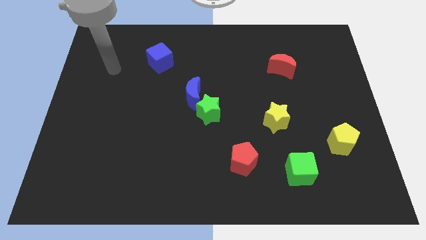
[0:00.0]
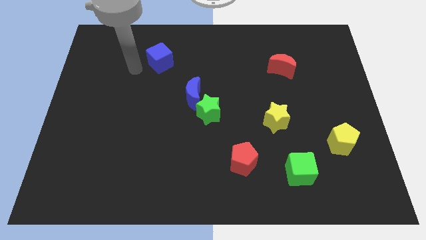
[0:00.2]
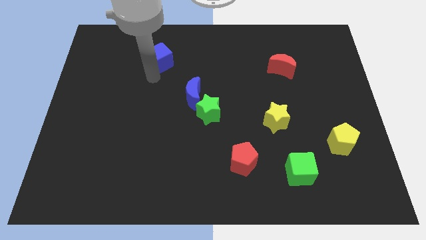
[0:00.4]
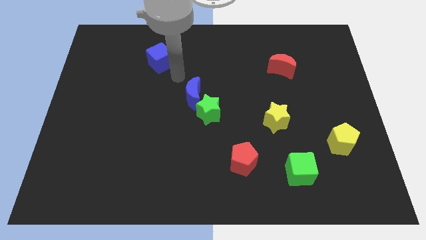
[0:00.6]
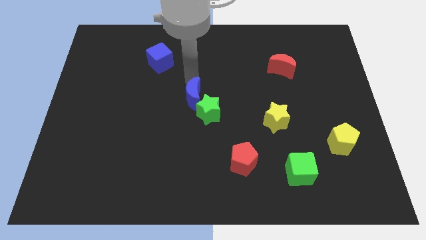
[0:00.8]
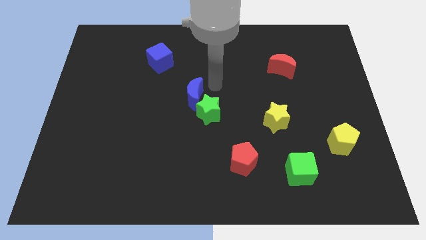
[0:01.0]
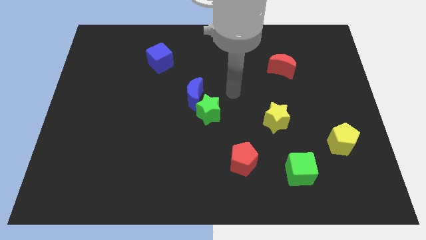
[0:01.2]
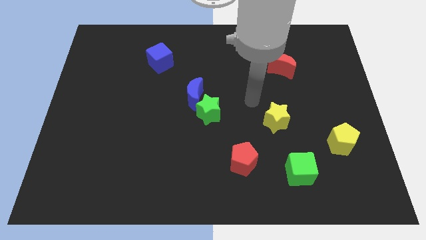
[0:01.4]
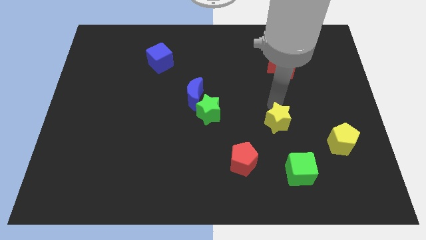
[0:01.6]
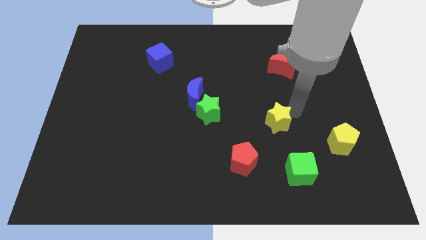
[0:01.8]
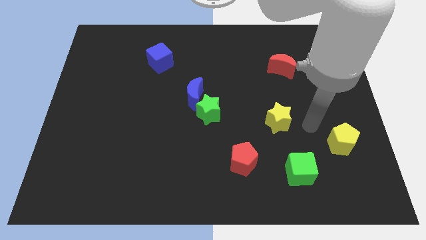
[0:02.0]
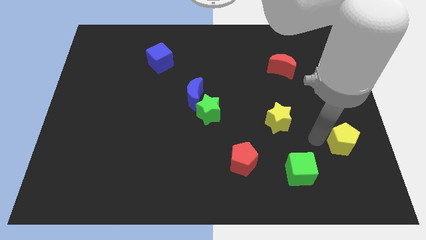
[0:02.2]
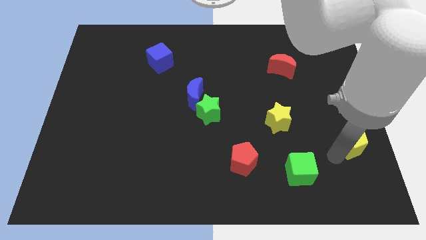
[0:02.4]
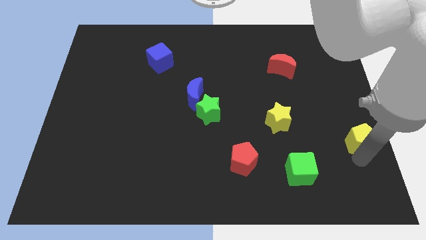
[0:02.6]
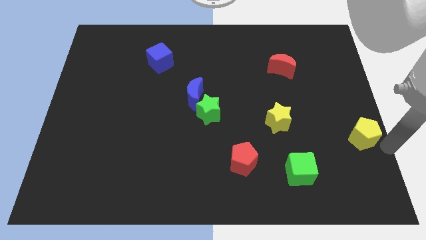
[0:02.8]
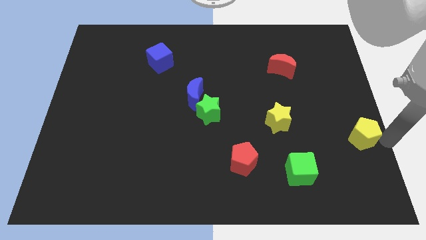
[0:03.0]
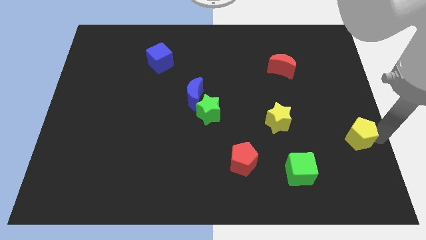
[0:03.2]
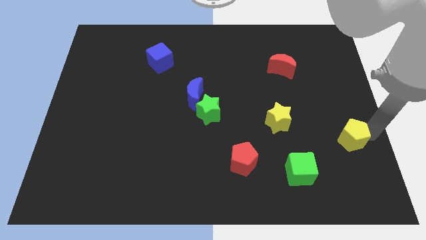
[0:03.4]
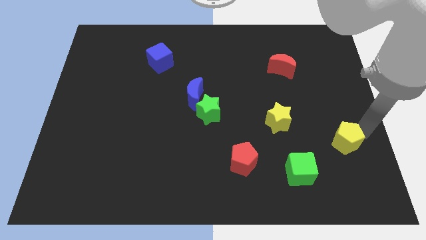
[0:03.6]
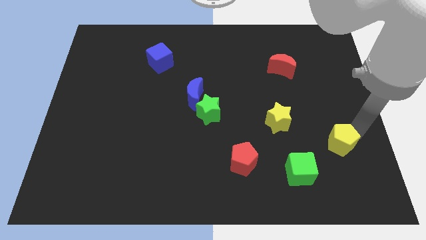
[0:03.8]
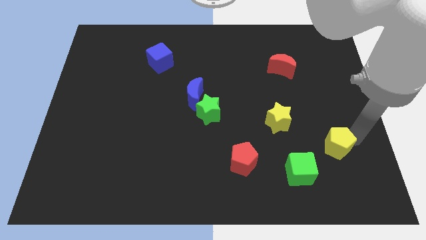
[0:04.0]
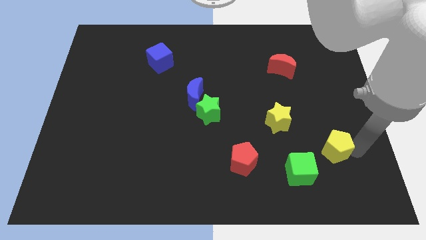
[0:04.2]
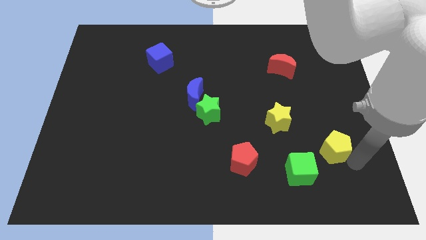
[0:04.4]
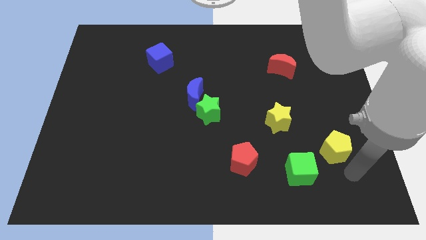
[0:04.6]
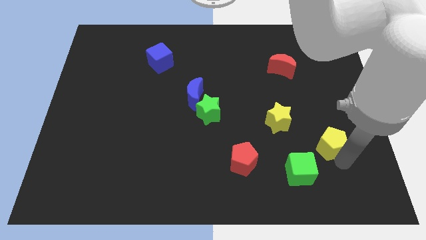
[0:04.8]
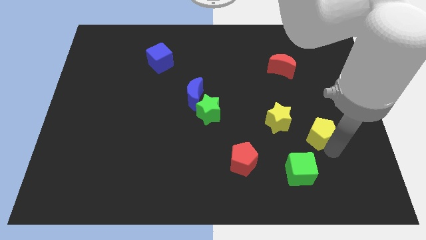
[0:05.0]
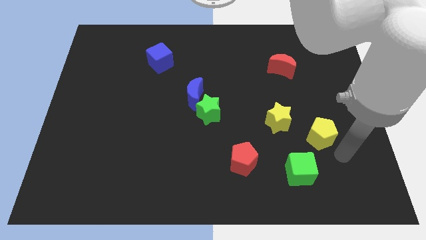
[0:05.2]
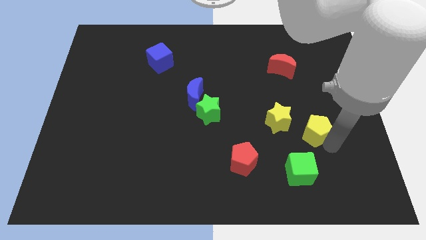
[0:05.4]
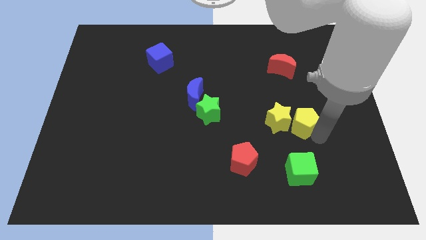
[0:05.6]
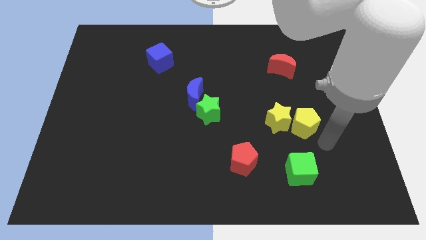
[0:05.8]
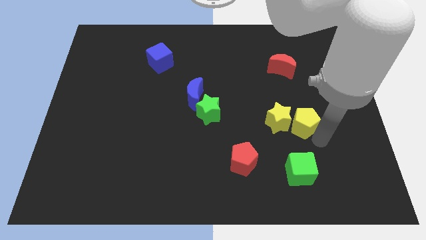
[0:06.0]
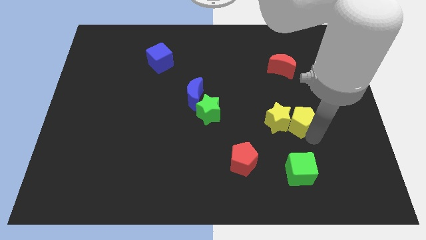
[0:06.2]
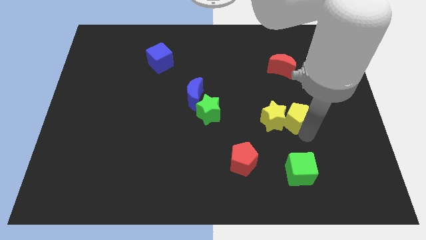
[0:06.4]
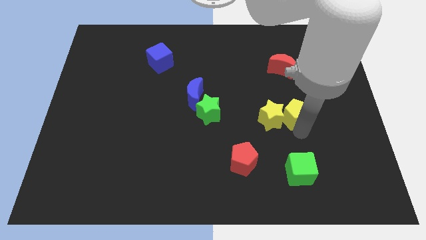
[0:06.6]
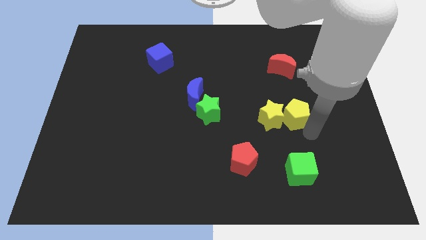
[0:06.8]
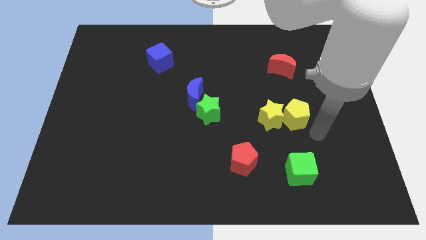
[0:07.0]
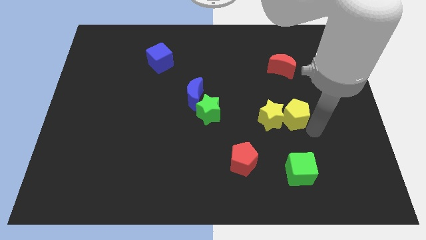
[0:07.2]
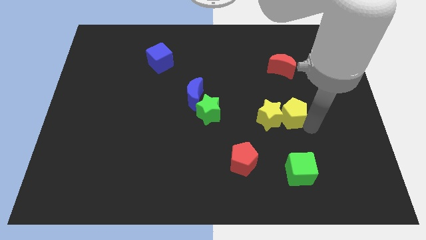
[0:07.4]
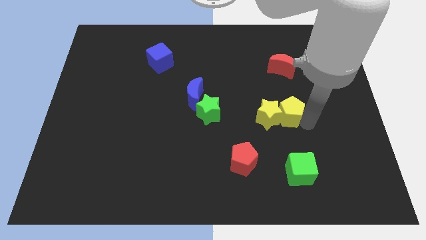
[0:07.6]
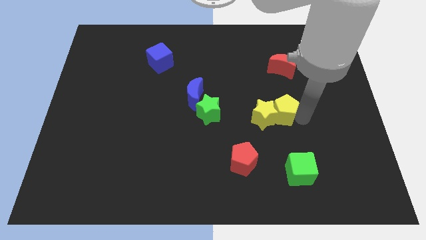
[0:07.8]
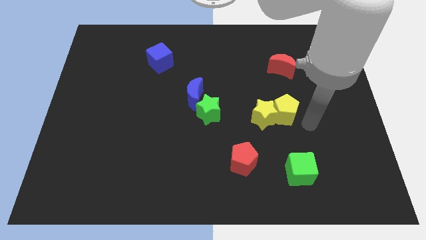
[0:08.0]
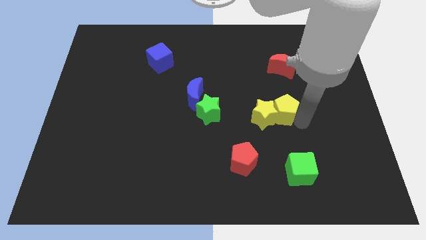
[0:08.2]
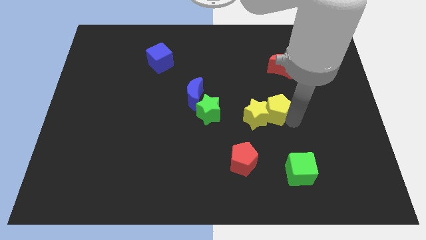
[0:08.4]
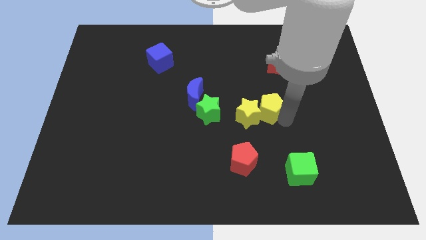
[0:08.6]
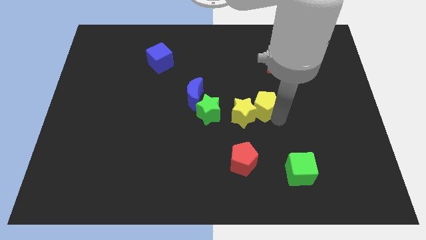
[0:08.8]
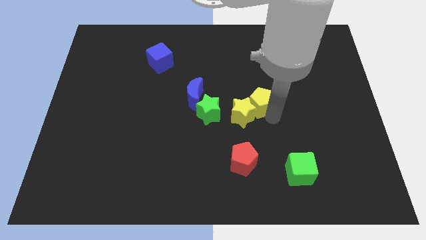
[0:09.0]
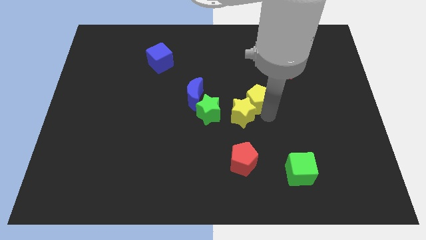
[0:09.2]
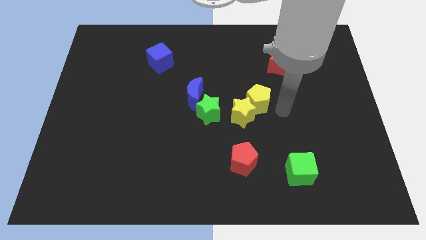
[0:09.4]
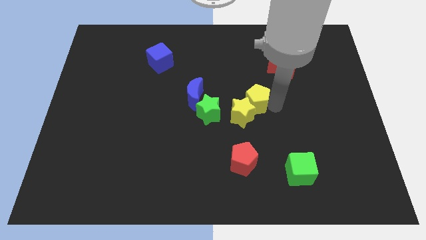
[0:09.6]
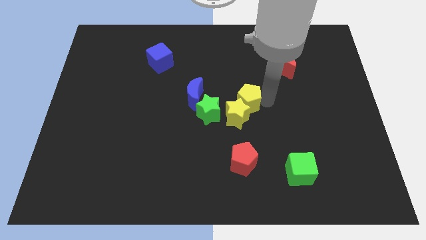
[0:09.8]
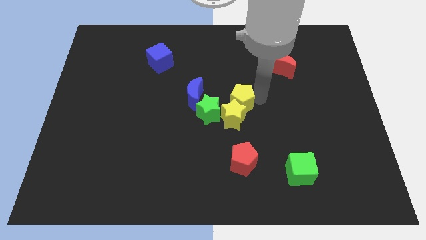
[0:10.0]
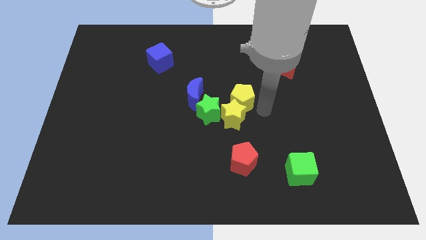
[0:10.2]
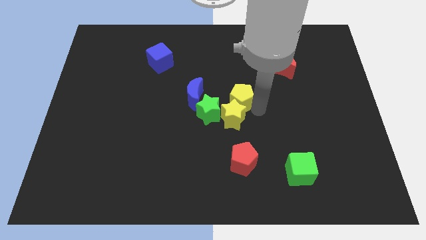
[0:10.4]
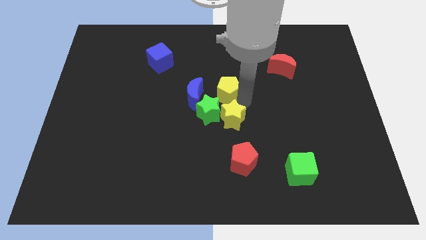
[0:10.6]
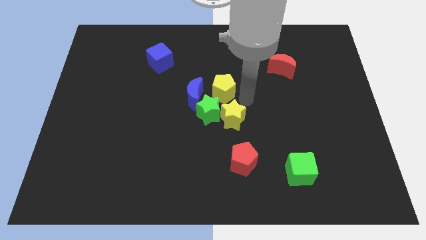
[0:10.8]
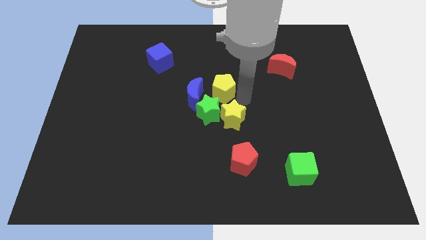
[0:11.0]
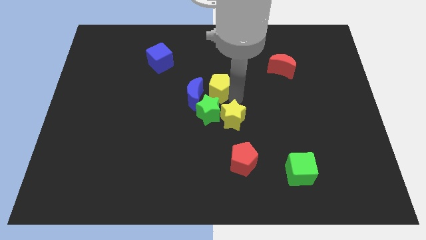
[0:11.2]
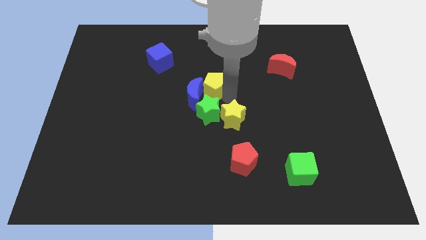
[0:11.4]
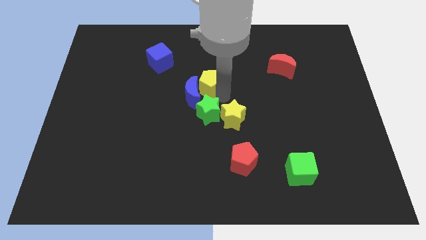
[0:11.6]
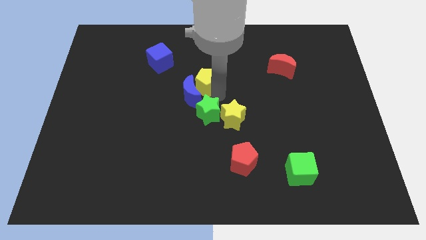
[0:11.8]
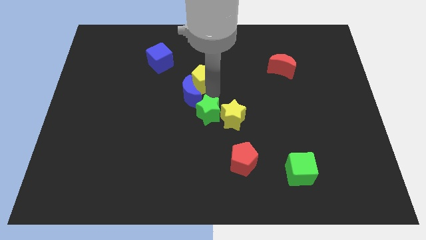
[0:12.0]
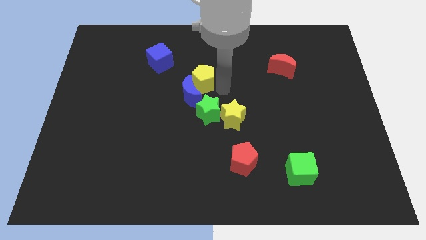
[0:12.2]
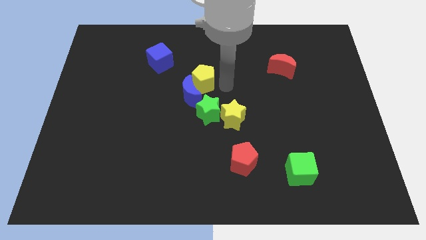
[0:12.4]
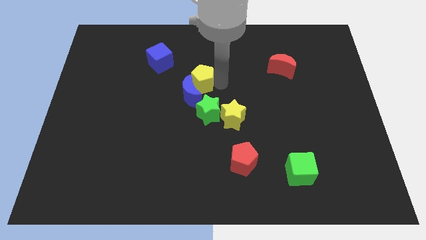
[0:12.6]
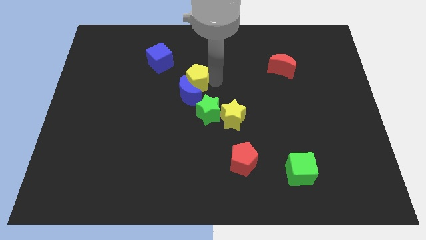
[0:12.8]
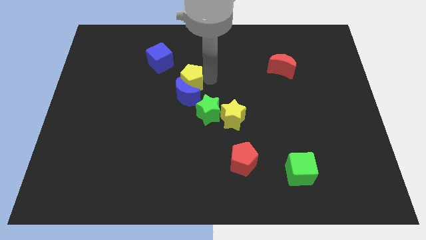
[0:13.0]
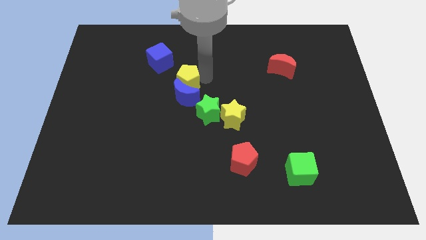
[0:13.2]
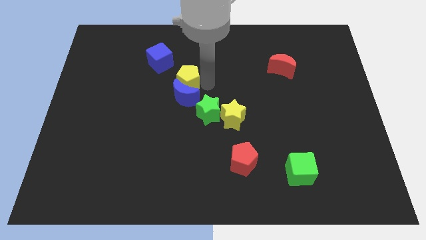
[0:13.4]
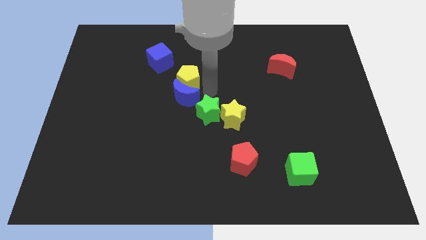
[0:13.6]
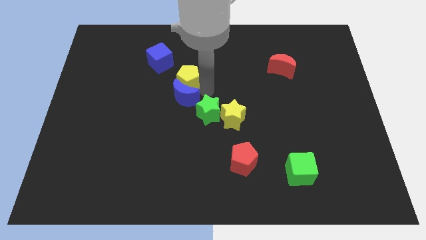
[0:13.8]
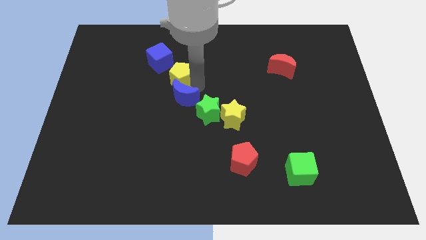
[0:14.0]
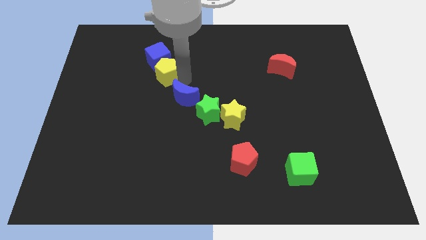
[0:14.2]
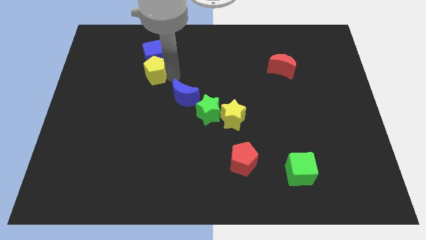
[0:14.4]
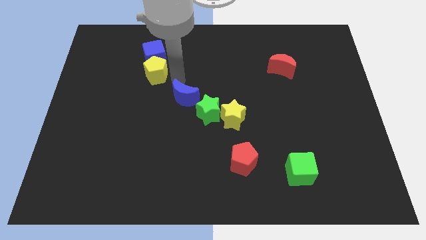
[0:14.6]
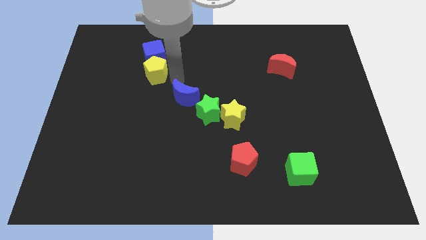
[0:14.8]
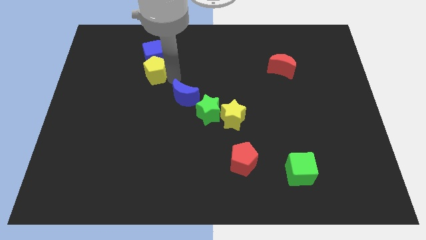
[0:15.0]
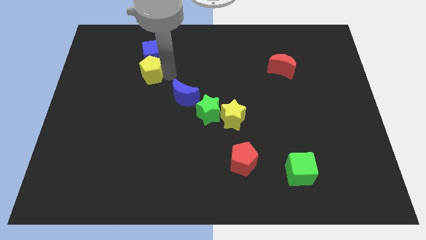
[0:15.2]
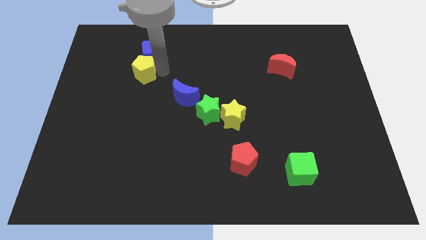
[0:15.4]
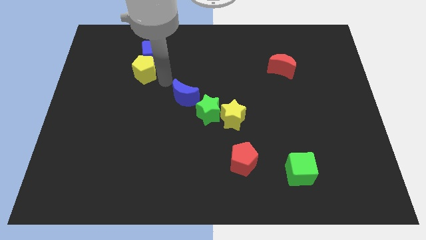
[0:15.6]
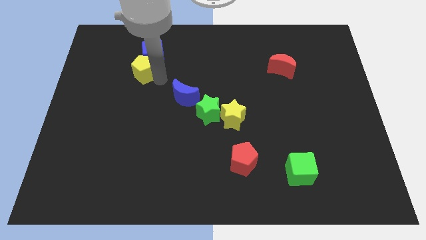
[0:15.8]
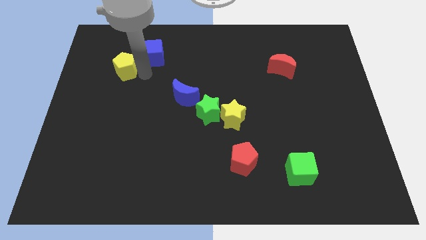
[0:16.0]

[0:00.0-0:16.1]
move the yellow pentagon just left of the blue cube
